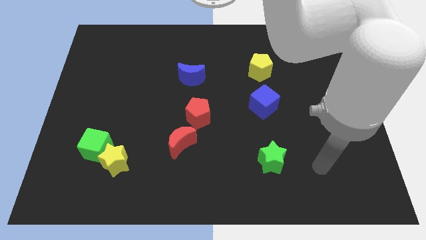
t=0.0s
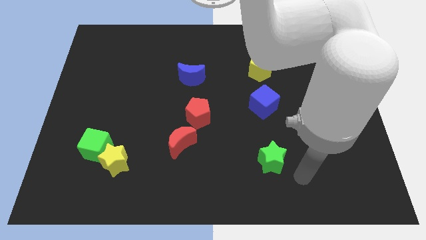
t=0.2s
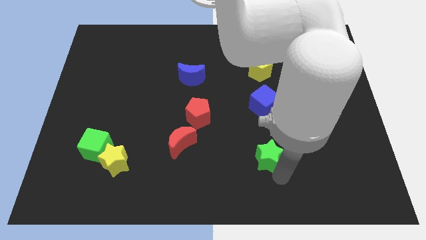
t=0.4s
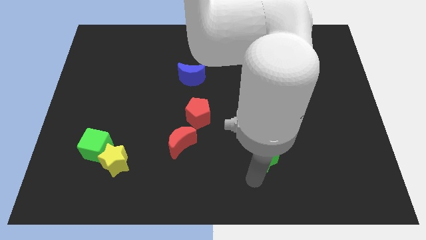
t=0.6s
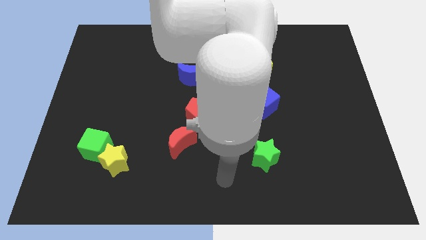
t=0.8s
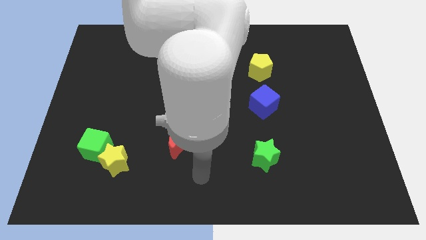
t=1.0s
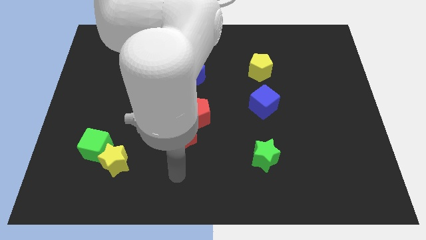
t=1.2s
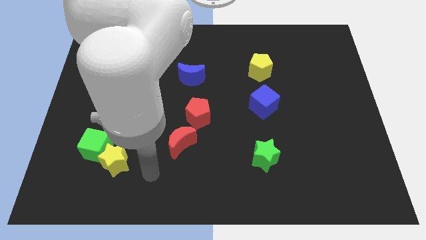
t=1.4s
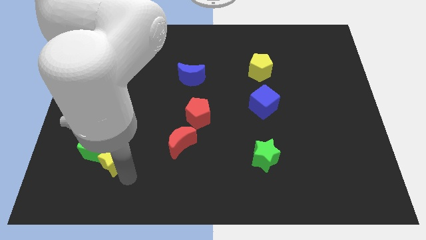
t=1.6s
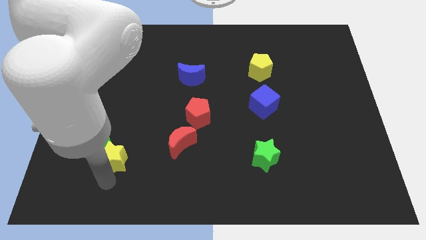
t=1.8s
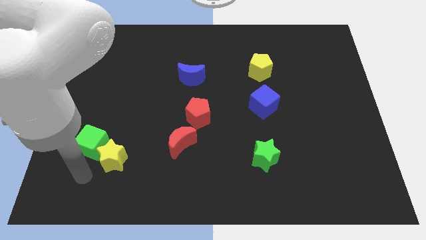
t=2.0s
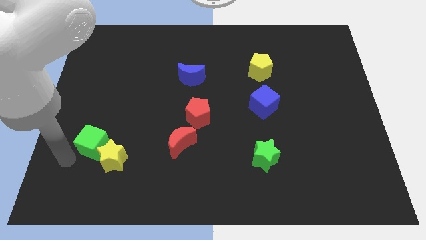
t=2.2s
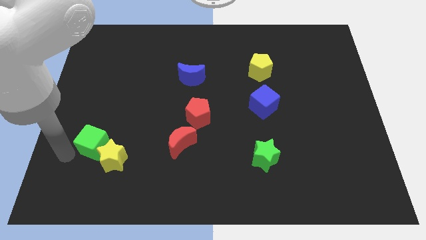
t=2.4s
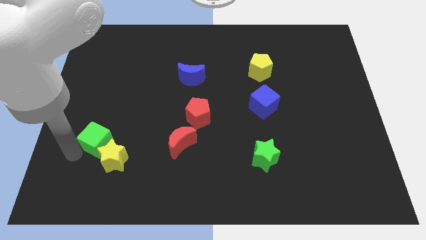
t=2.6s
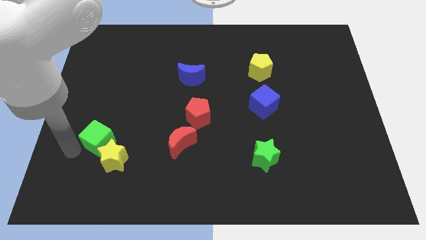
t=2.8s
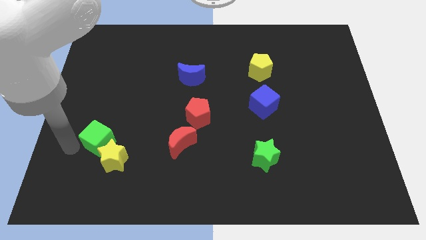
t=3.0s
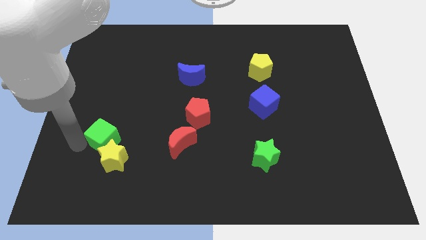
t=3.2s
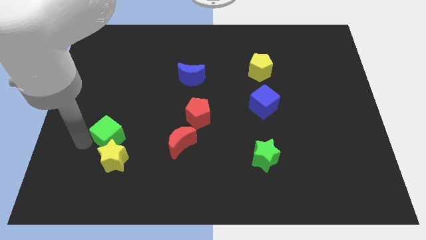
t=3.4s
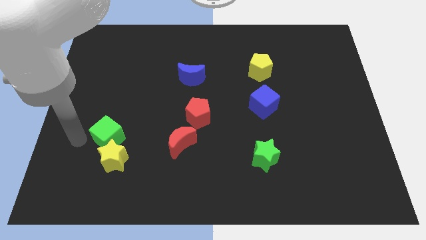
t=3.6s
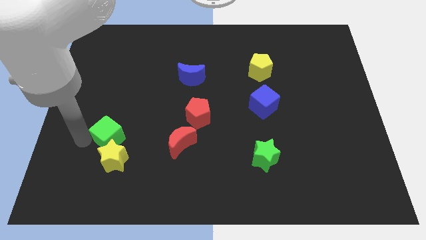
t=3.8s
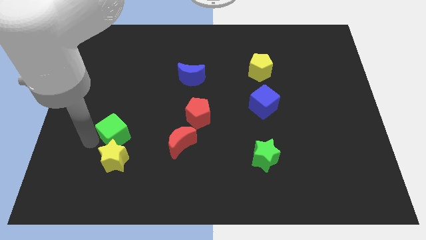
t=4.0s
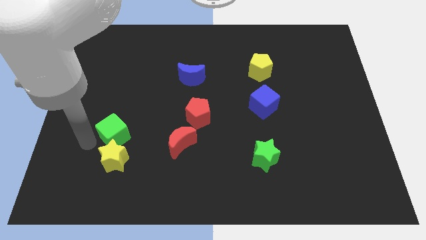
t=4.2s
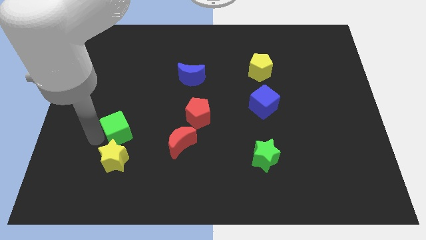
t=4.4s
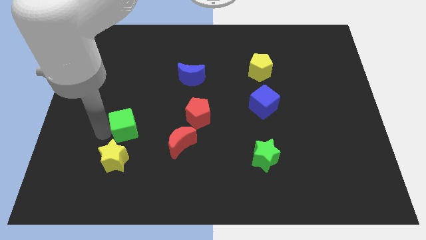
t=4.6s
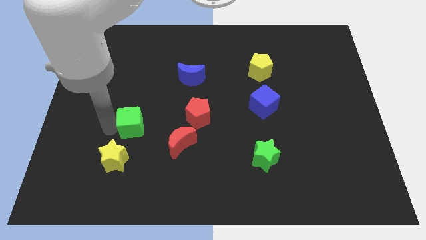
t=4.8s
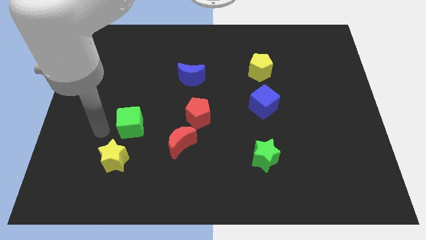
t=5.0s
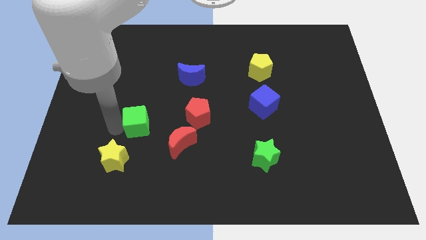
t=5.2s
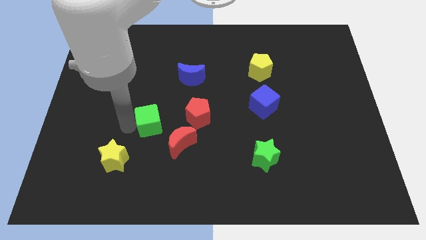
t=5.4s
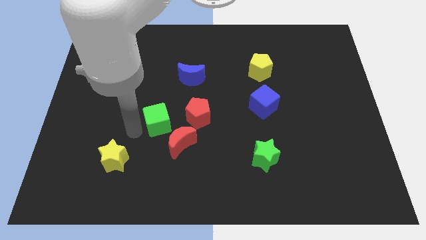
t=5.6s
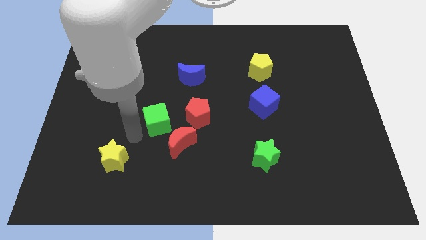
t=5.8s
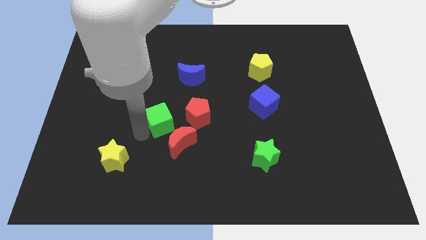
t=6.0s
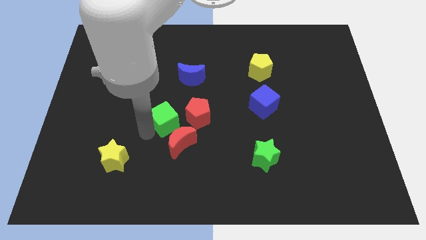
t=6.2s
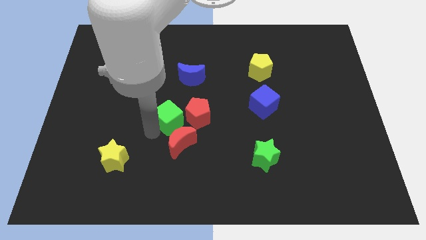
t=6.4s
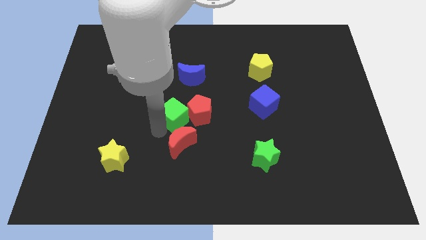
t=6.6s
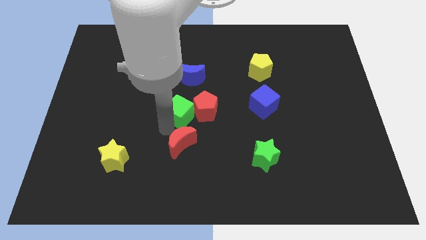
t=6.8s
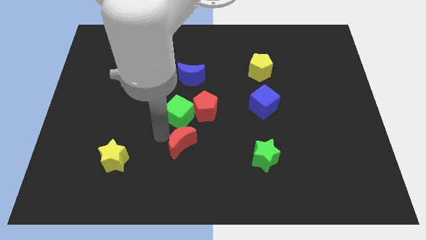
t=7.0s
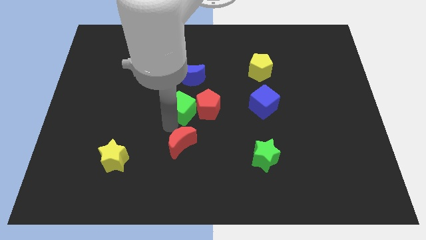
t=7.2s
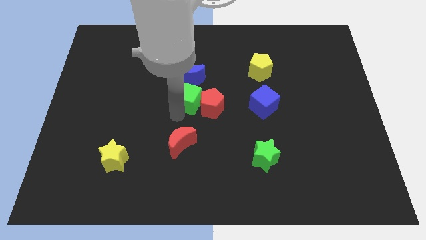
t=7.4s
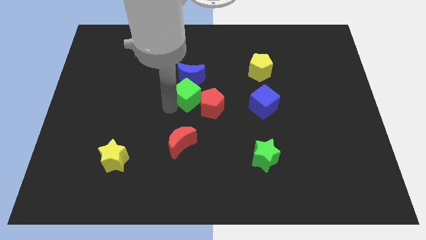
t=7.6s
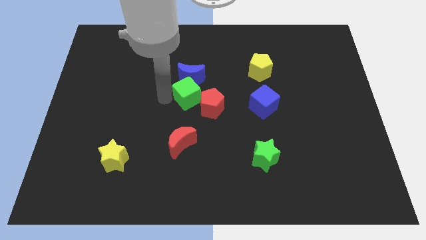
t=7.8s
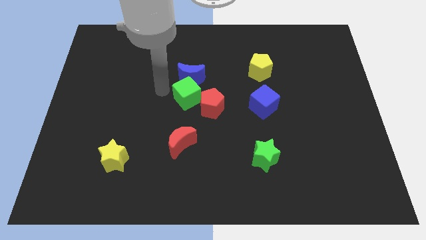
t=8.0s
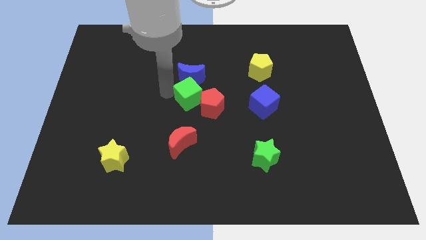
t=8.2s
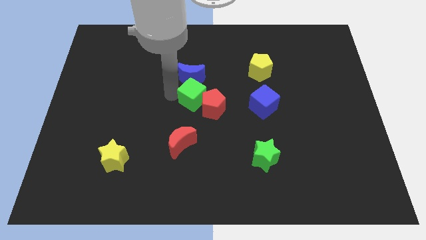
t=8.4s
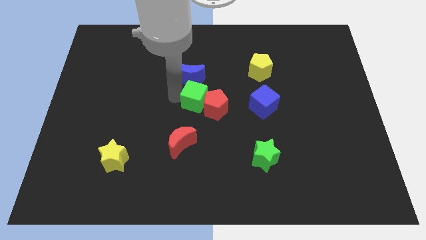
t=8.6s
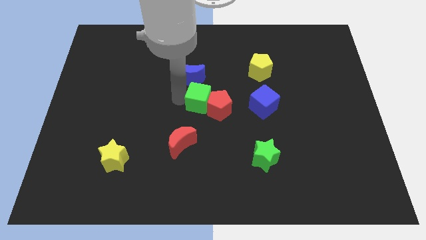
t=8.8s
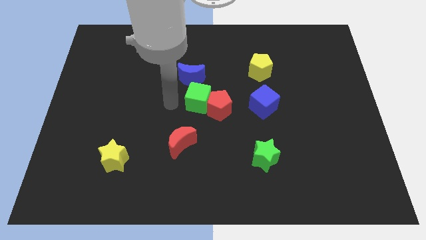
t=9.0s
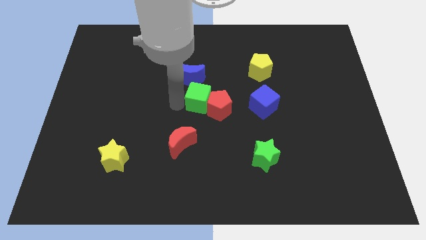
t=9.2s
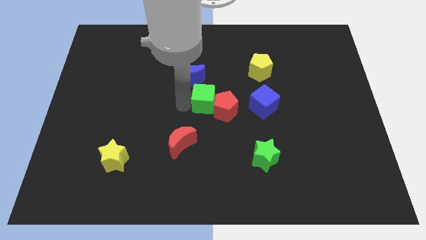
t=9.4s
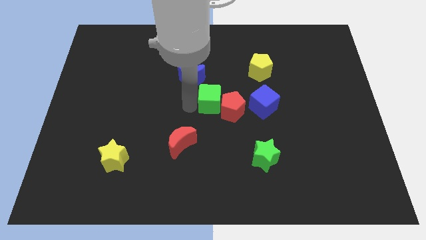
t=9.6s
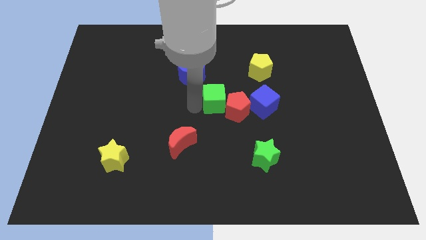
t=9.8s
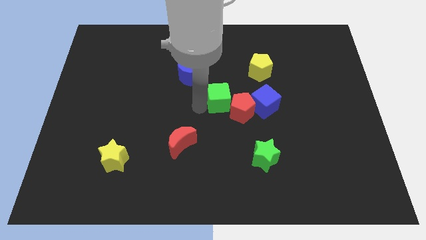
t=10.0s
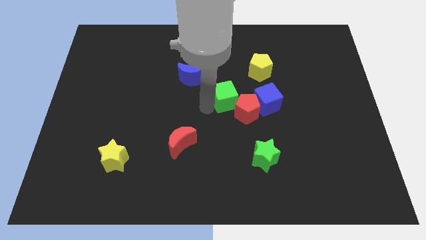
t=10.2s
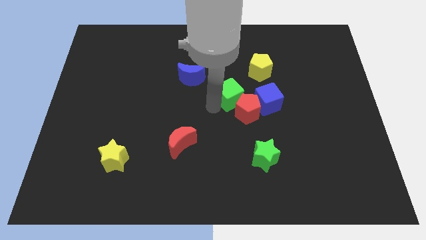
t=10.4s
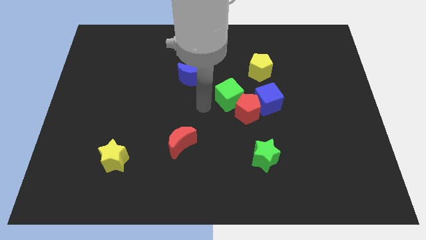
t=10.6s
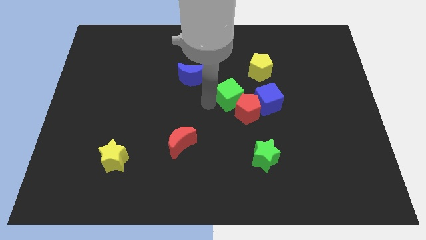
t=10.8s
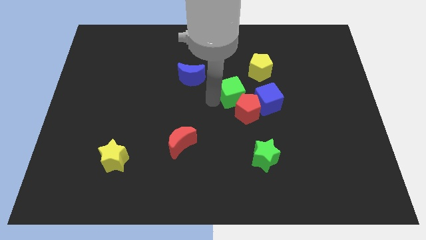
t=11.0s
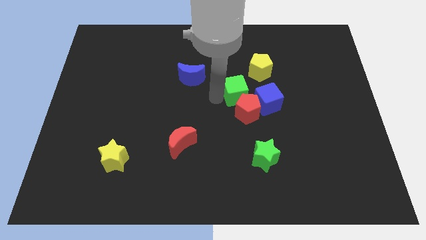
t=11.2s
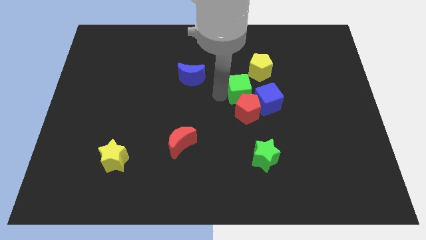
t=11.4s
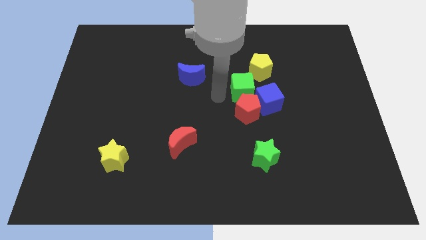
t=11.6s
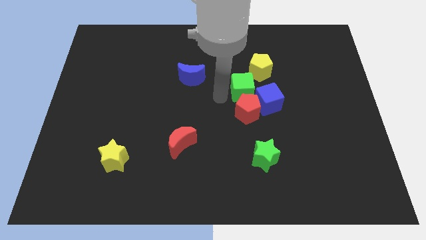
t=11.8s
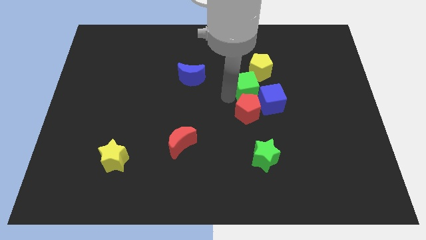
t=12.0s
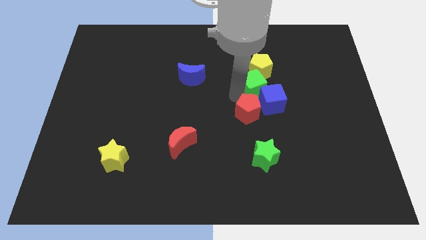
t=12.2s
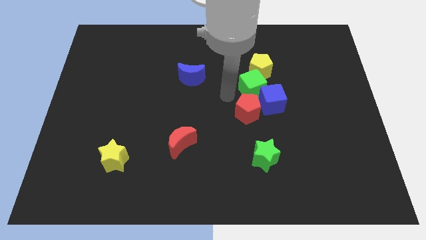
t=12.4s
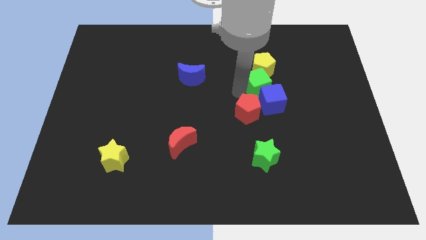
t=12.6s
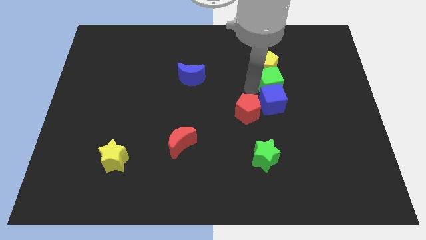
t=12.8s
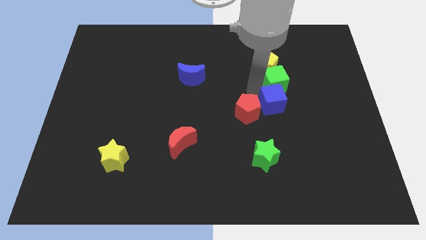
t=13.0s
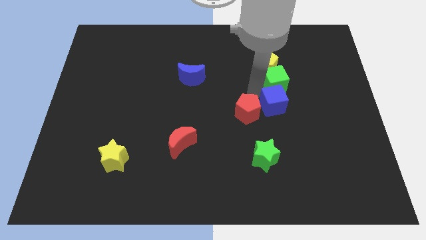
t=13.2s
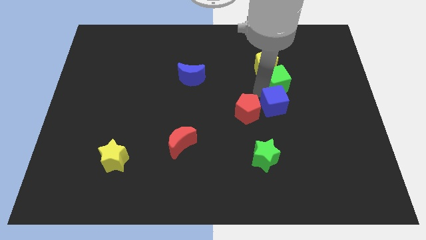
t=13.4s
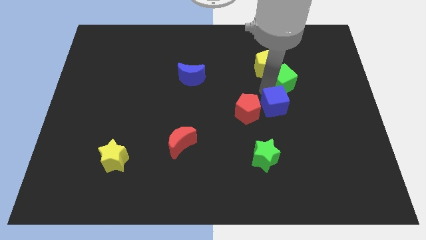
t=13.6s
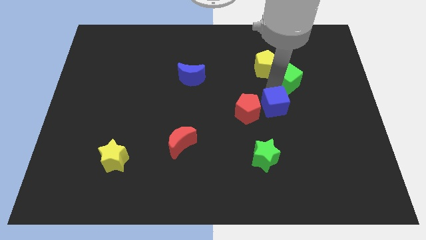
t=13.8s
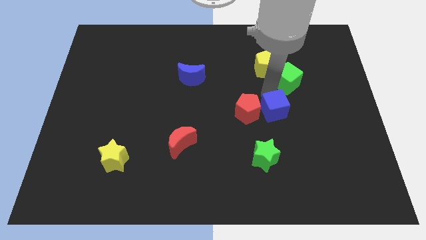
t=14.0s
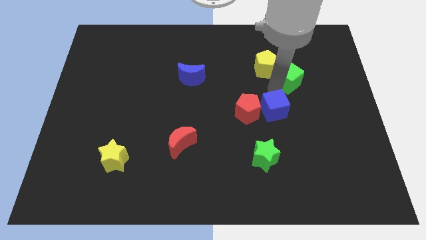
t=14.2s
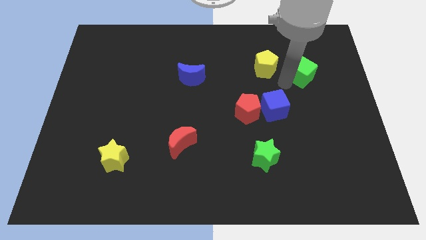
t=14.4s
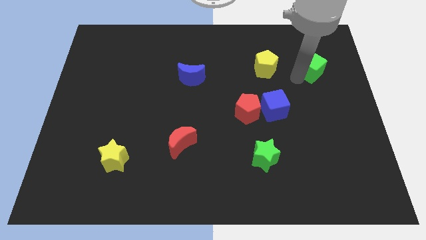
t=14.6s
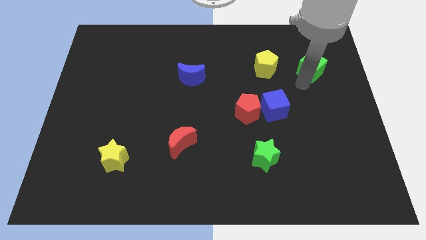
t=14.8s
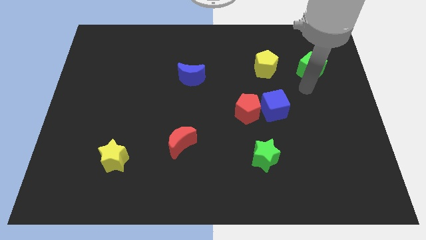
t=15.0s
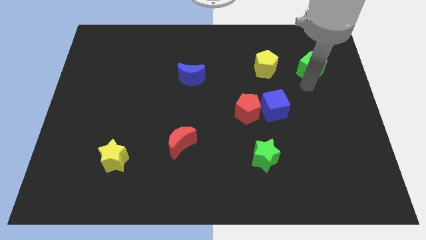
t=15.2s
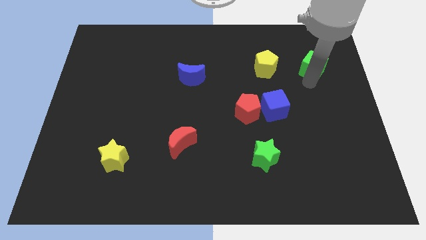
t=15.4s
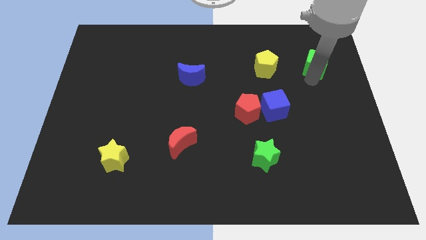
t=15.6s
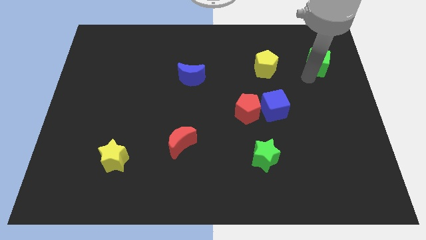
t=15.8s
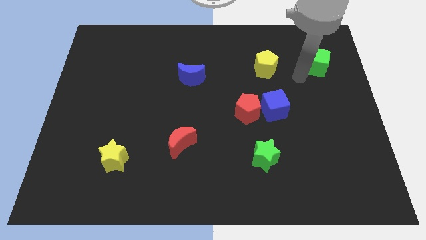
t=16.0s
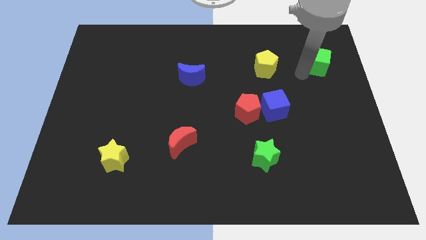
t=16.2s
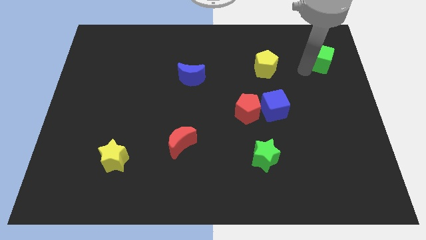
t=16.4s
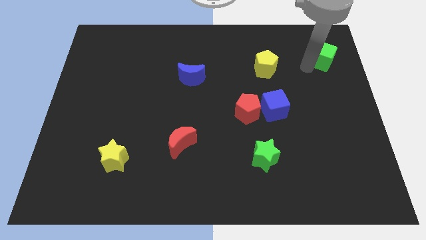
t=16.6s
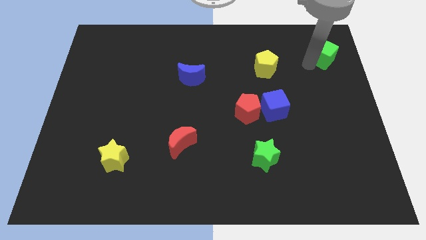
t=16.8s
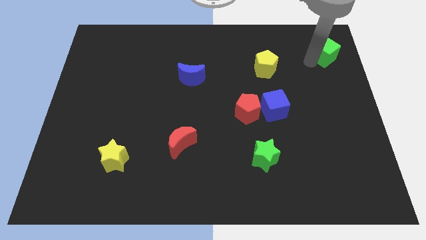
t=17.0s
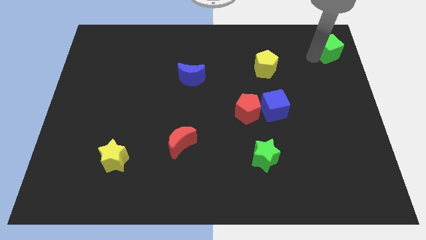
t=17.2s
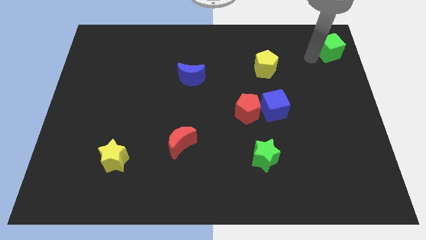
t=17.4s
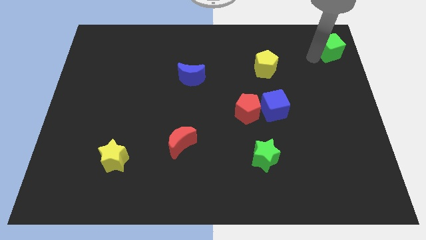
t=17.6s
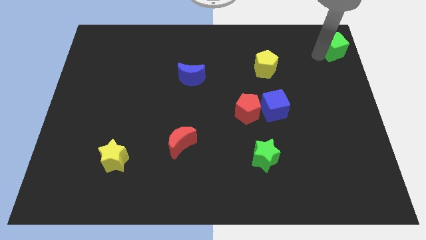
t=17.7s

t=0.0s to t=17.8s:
put the green cube to the top right of the board
